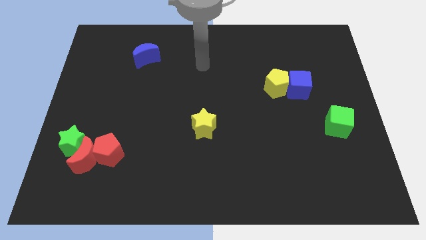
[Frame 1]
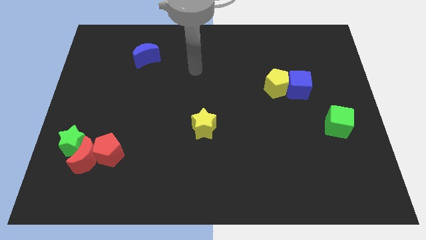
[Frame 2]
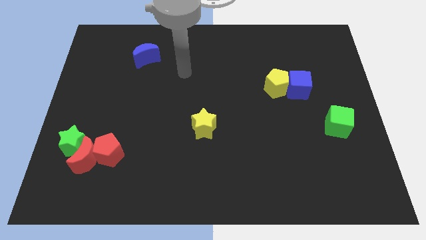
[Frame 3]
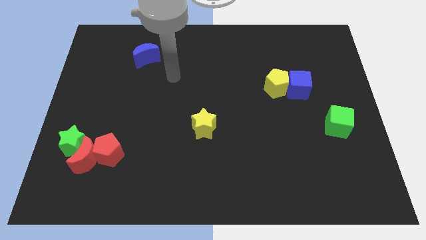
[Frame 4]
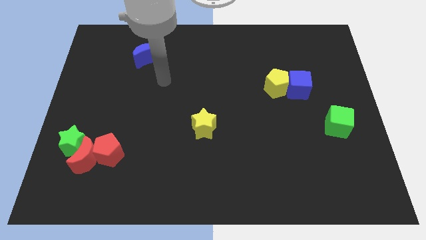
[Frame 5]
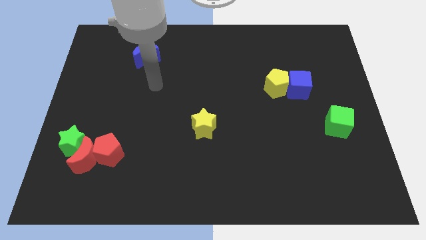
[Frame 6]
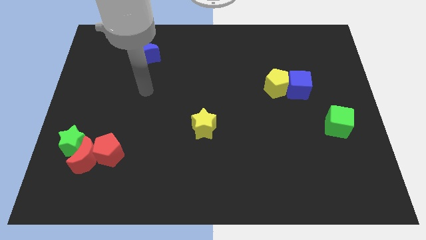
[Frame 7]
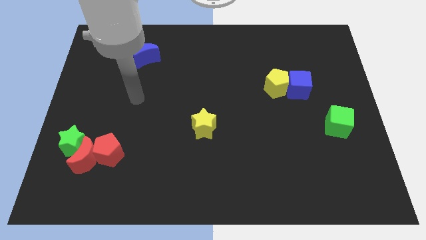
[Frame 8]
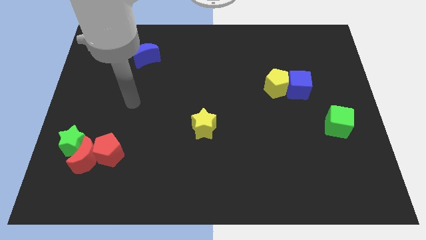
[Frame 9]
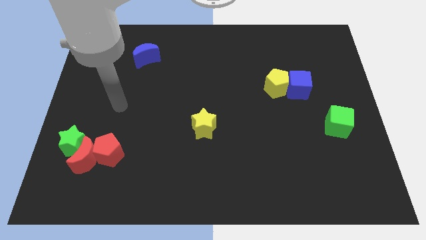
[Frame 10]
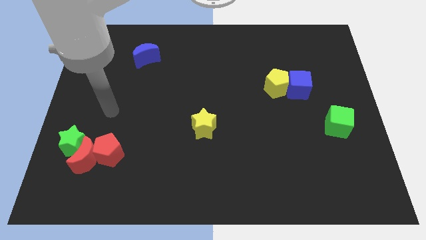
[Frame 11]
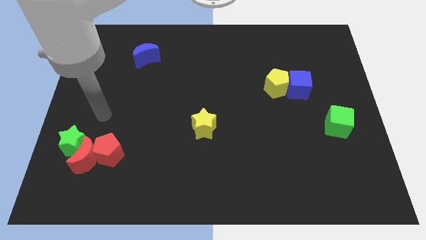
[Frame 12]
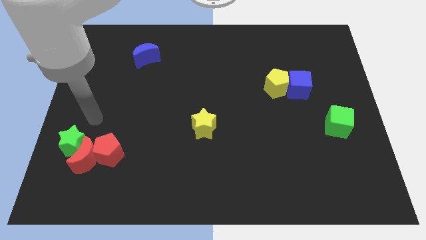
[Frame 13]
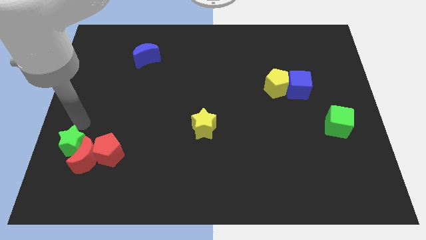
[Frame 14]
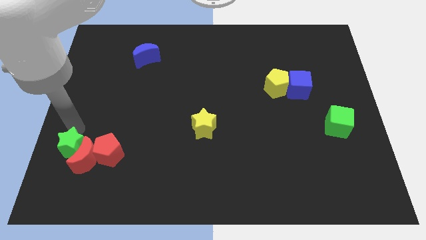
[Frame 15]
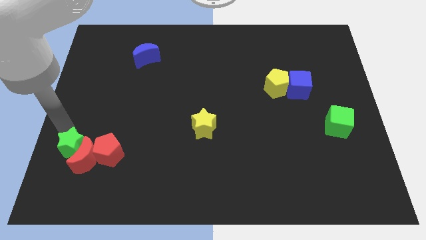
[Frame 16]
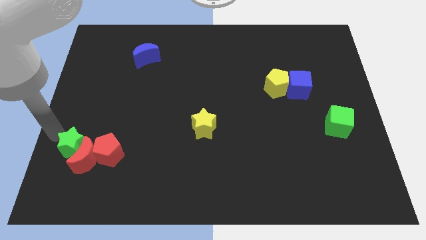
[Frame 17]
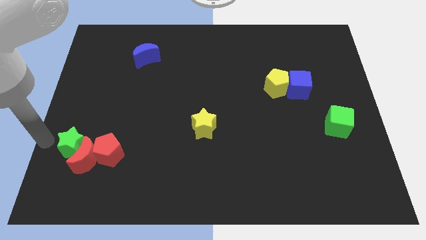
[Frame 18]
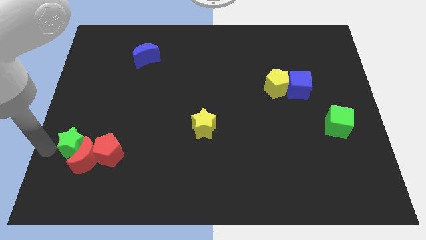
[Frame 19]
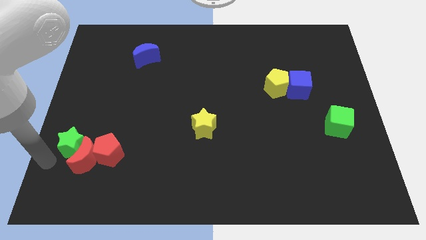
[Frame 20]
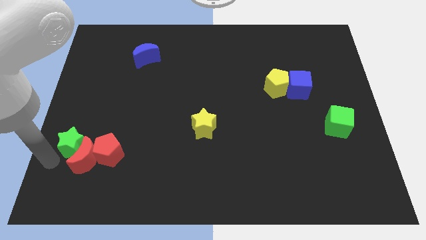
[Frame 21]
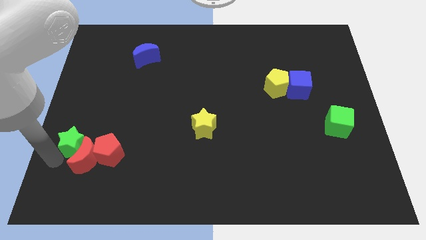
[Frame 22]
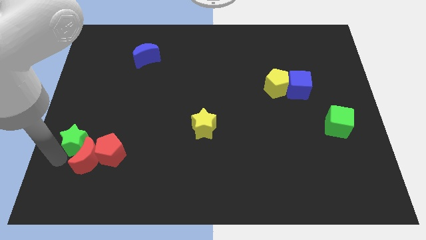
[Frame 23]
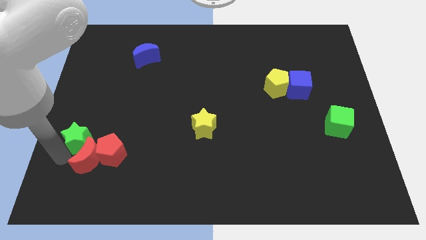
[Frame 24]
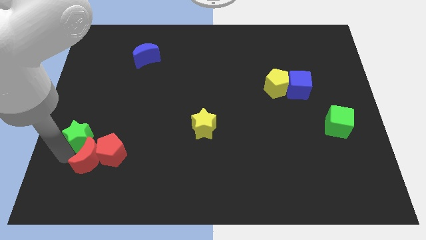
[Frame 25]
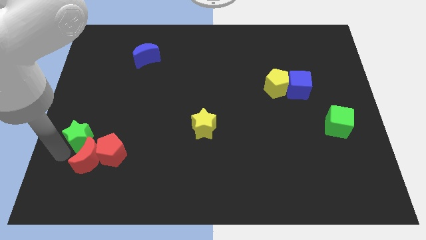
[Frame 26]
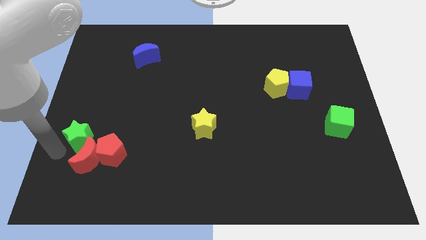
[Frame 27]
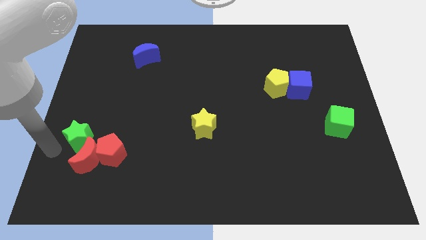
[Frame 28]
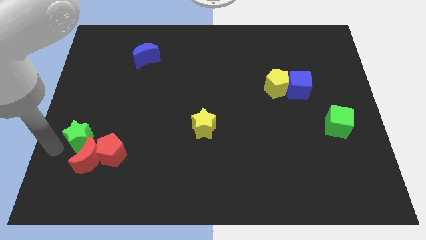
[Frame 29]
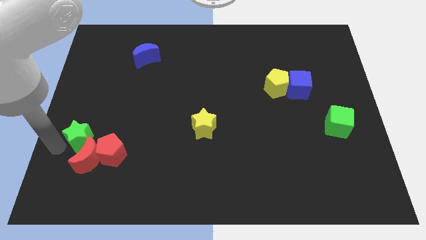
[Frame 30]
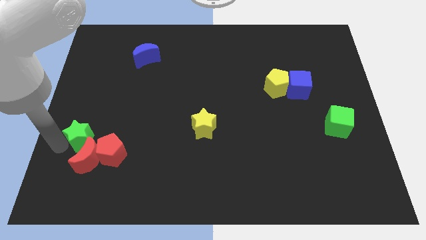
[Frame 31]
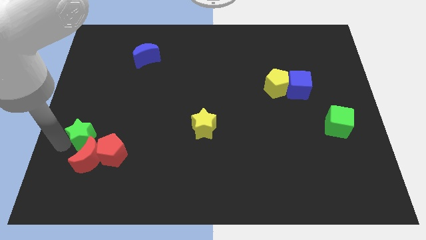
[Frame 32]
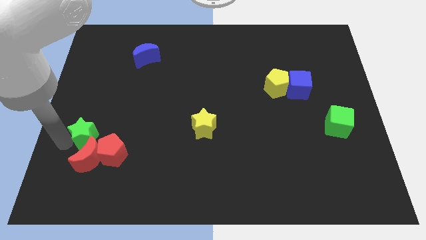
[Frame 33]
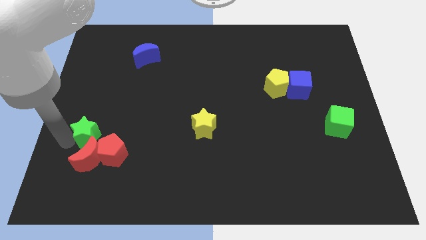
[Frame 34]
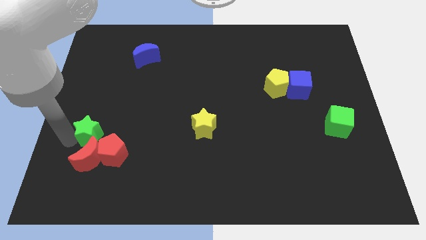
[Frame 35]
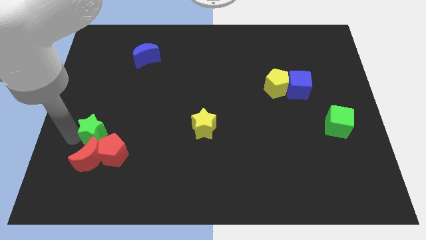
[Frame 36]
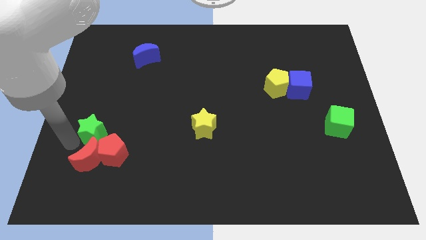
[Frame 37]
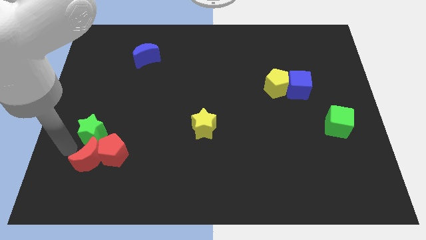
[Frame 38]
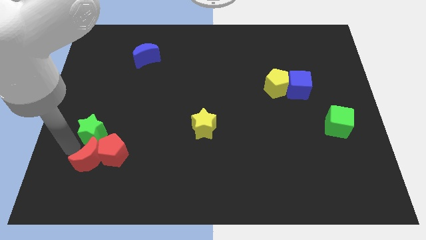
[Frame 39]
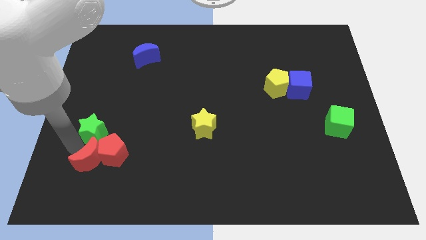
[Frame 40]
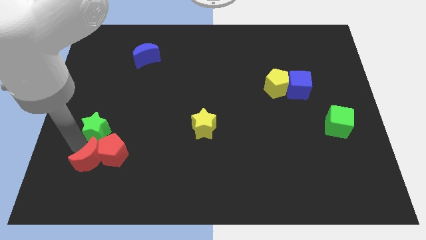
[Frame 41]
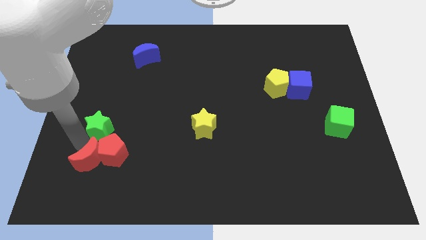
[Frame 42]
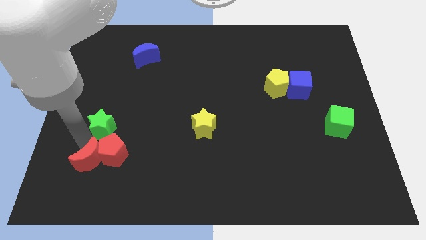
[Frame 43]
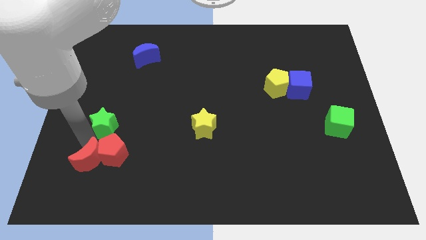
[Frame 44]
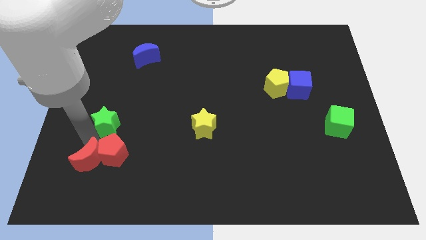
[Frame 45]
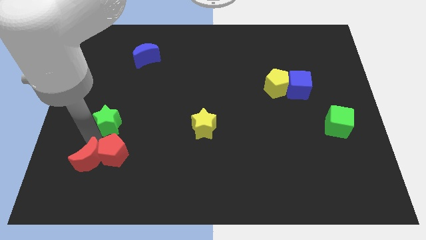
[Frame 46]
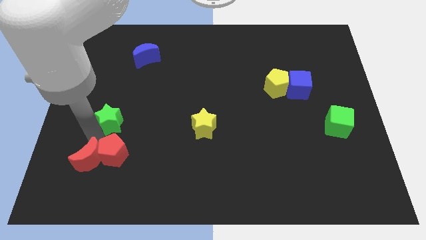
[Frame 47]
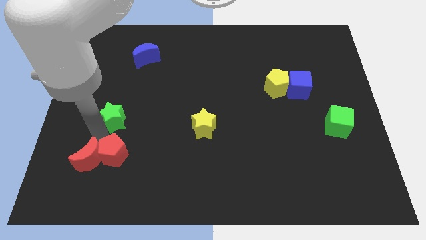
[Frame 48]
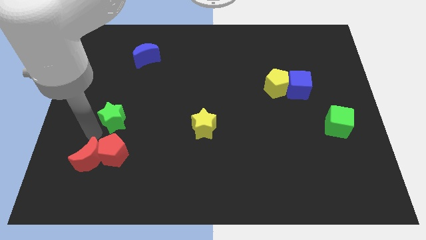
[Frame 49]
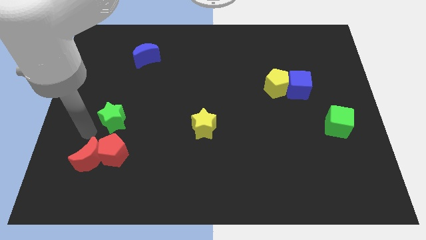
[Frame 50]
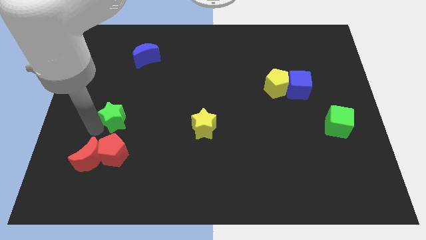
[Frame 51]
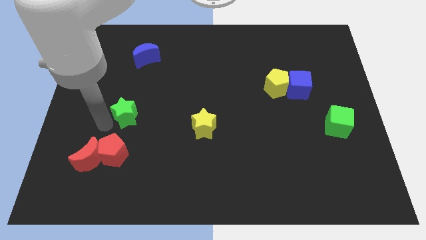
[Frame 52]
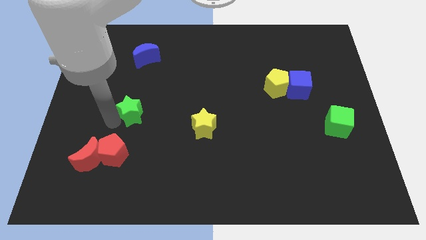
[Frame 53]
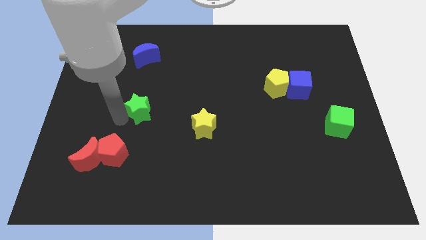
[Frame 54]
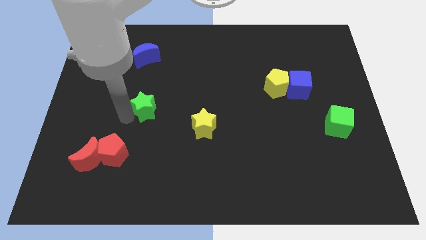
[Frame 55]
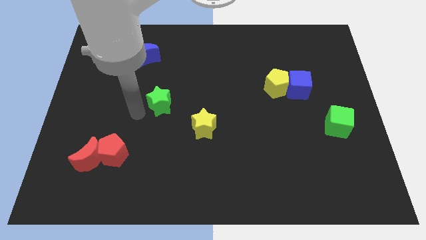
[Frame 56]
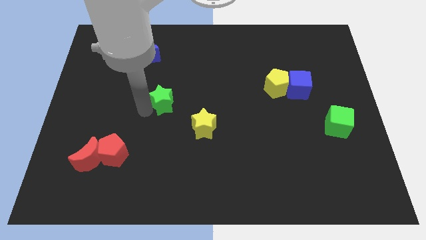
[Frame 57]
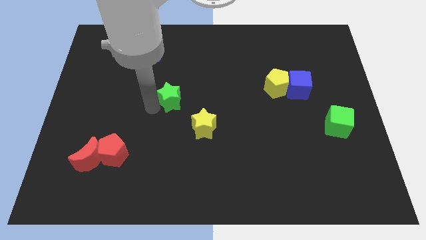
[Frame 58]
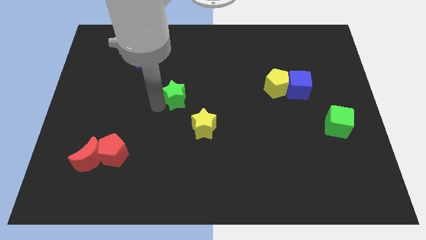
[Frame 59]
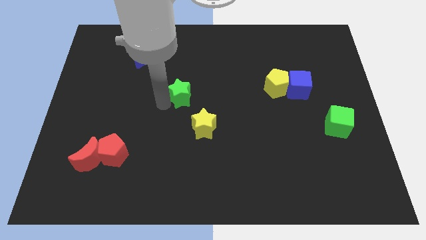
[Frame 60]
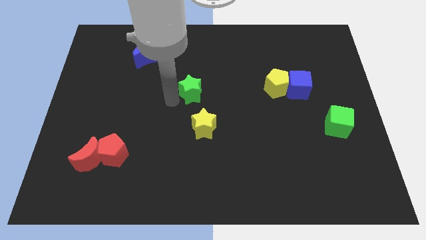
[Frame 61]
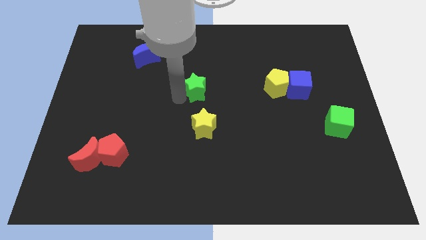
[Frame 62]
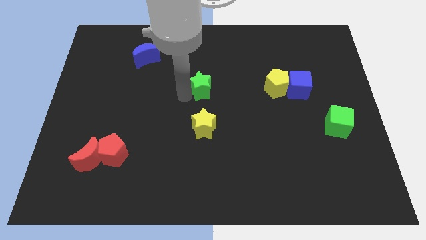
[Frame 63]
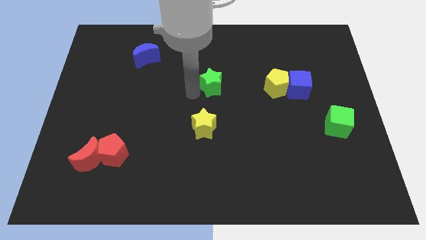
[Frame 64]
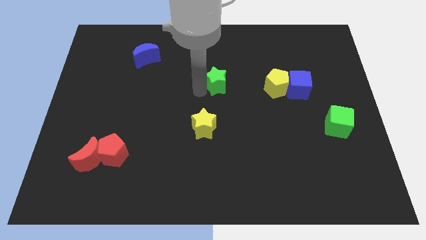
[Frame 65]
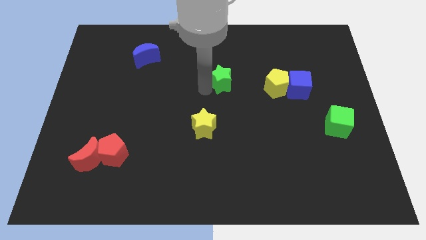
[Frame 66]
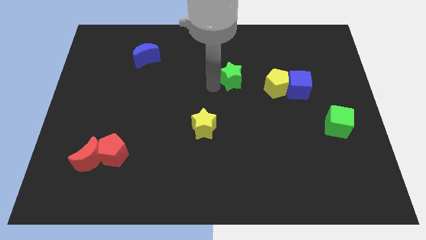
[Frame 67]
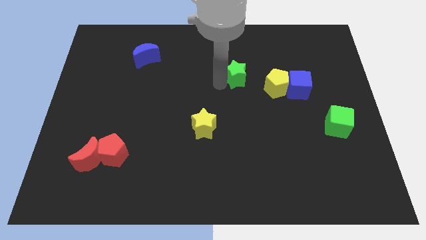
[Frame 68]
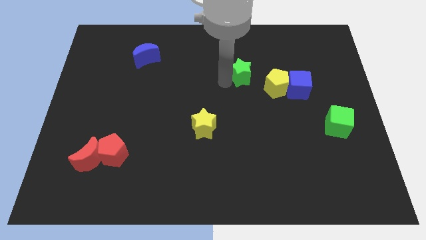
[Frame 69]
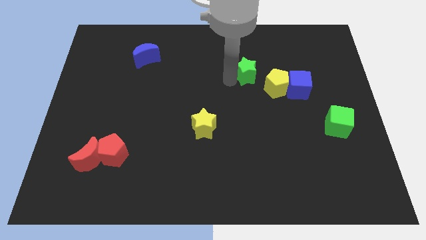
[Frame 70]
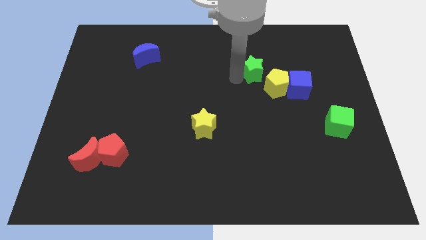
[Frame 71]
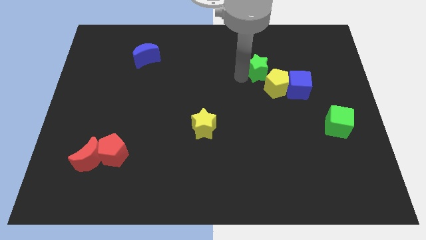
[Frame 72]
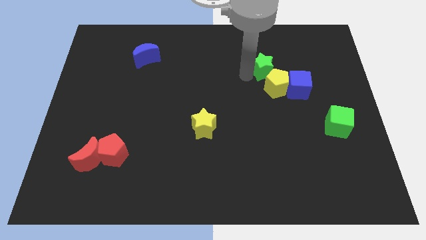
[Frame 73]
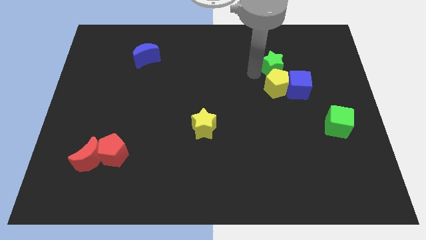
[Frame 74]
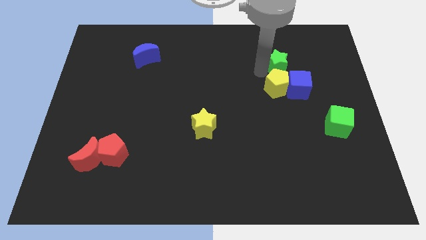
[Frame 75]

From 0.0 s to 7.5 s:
slide the green star to the top side of the blue cube
